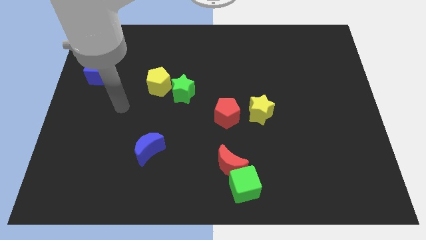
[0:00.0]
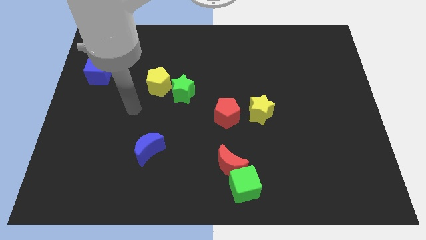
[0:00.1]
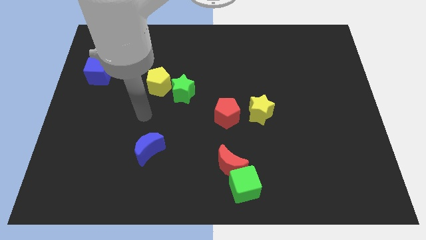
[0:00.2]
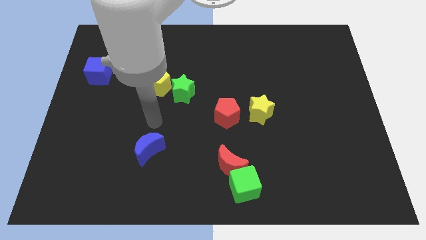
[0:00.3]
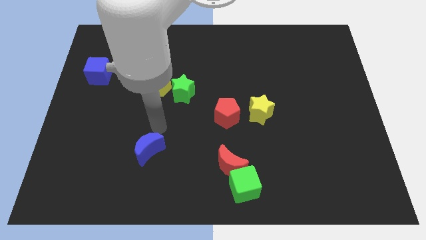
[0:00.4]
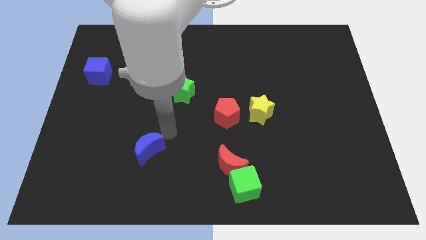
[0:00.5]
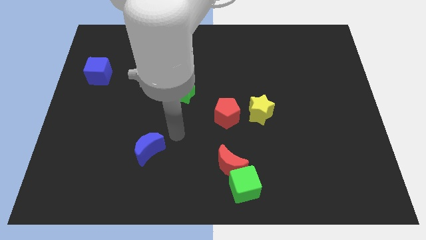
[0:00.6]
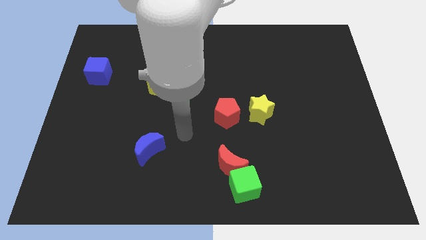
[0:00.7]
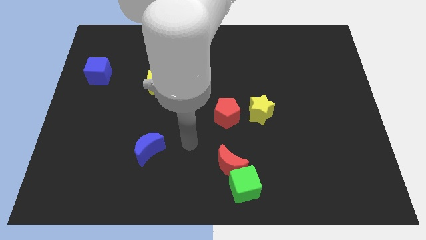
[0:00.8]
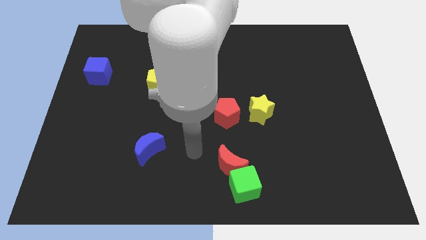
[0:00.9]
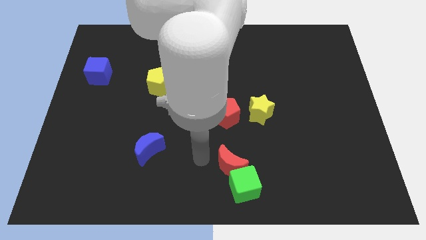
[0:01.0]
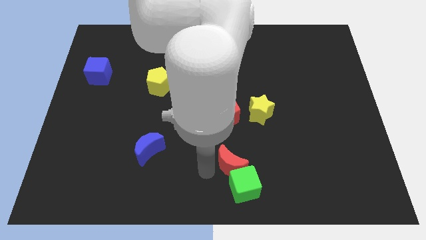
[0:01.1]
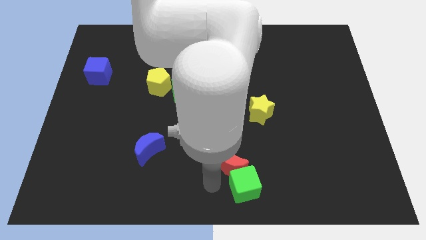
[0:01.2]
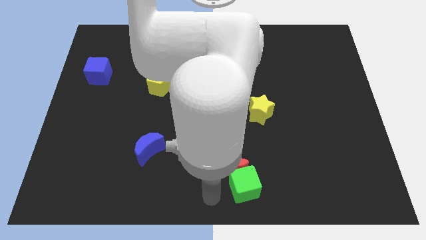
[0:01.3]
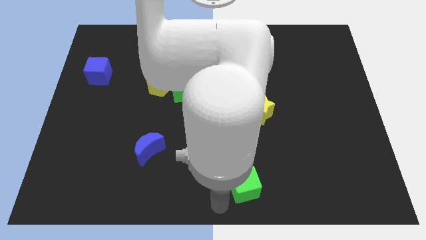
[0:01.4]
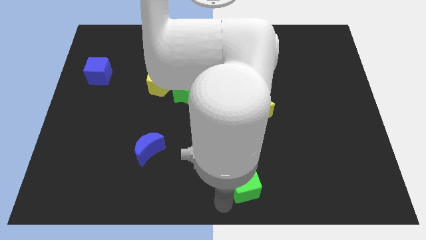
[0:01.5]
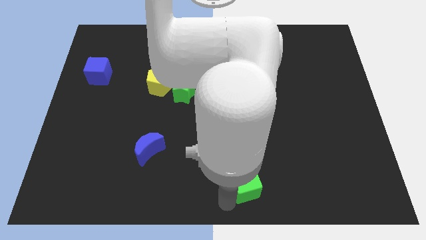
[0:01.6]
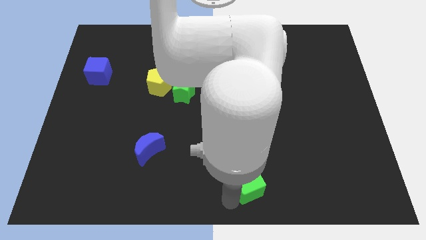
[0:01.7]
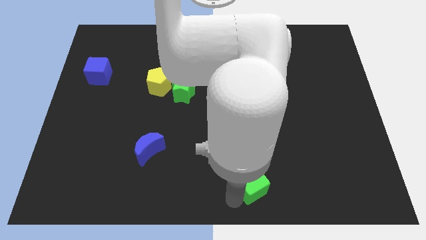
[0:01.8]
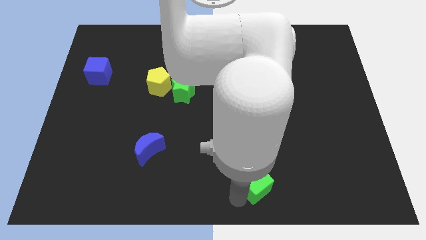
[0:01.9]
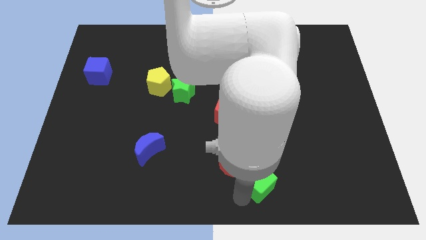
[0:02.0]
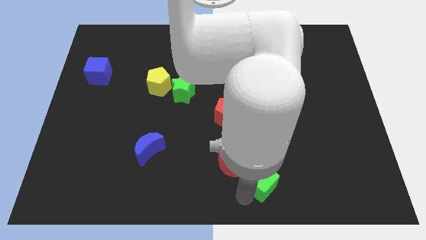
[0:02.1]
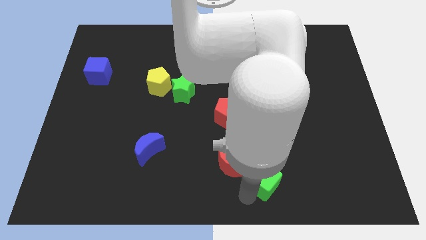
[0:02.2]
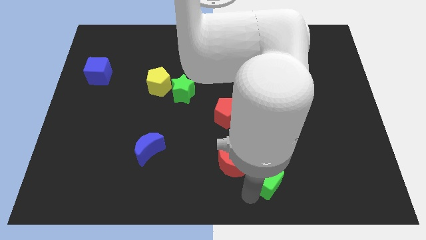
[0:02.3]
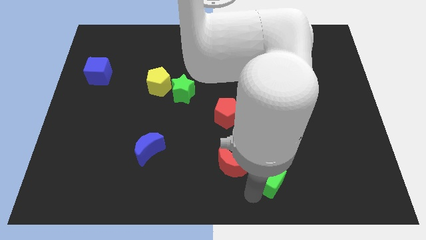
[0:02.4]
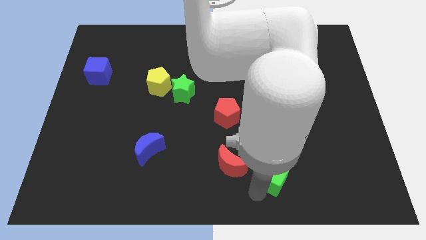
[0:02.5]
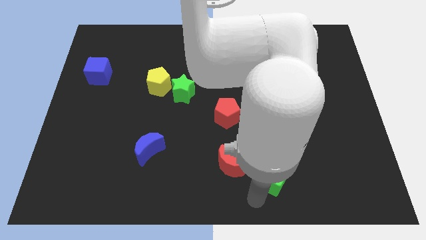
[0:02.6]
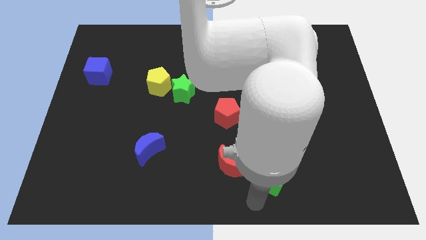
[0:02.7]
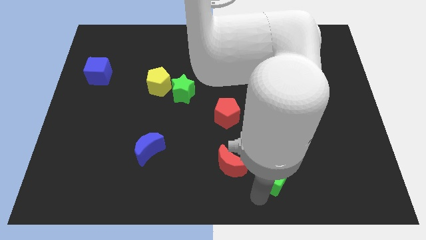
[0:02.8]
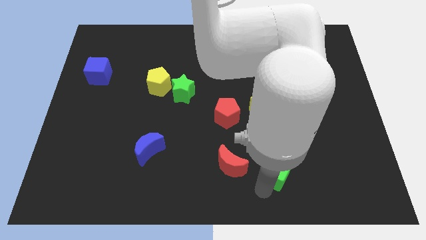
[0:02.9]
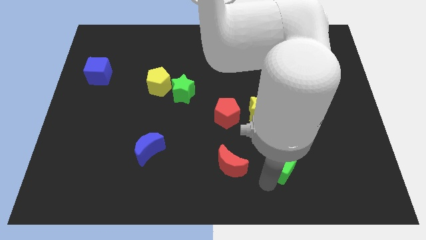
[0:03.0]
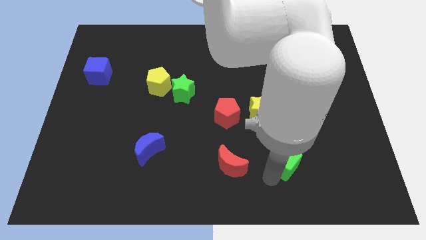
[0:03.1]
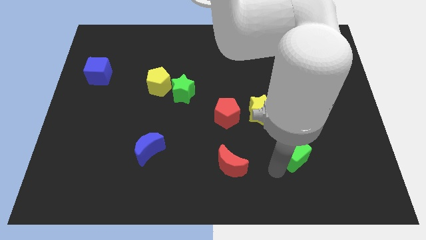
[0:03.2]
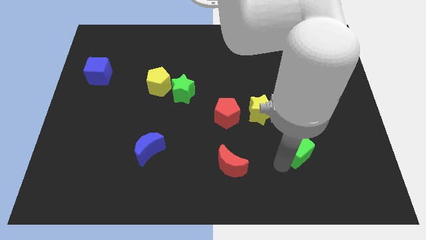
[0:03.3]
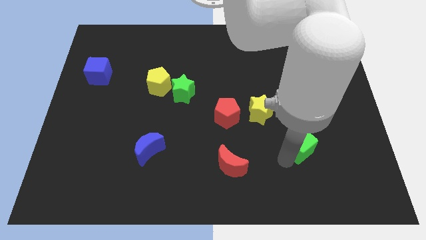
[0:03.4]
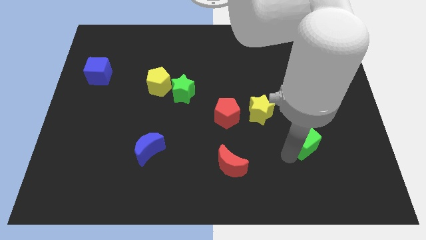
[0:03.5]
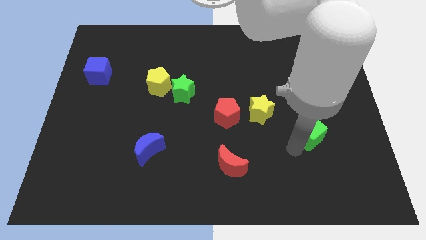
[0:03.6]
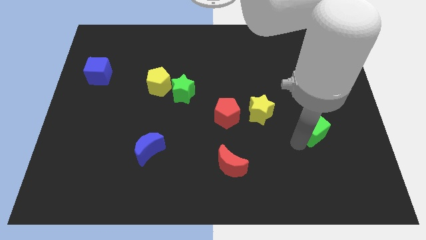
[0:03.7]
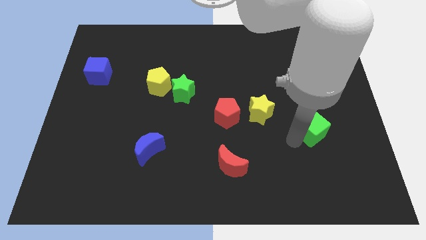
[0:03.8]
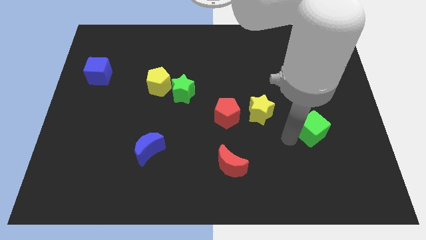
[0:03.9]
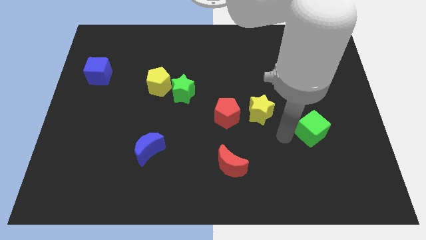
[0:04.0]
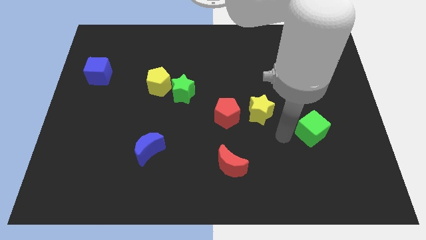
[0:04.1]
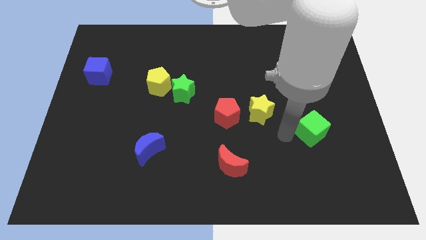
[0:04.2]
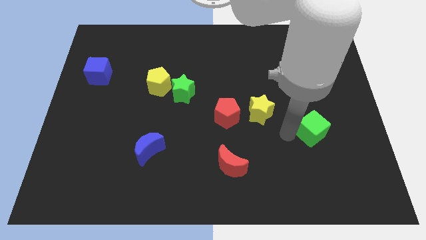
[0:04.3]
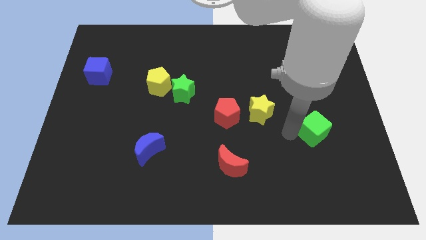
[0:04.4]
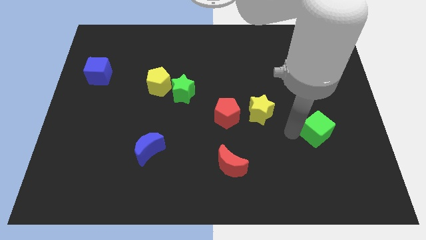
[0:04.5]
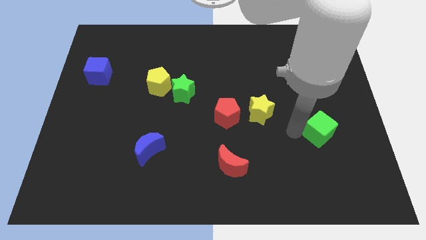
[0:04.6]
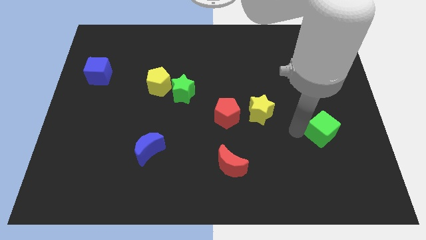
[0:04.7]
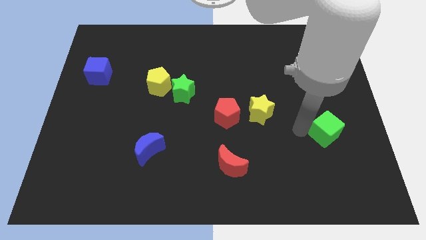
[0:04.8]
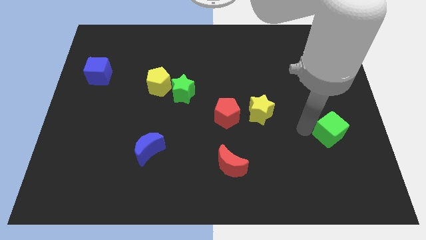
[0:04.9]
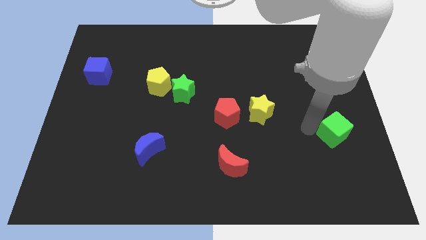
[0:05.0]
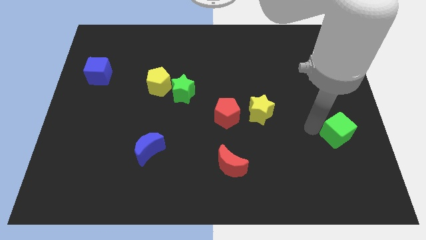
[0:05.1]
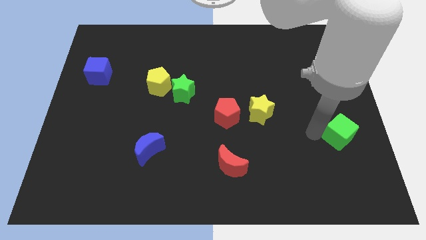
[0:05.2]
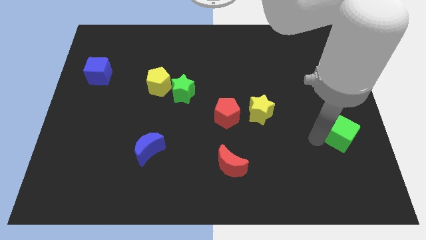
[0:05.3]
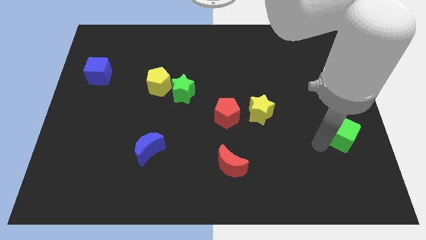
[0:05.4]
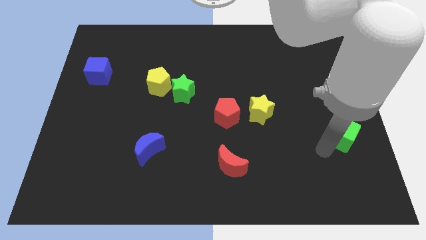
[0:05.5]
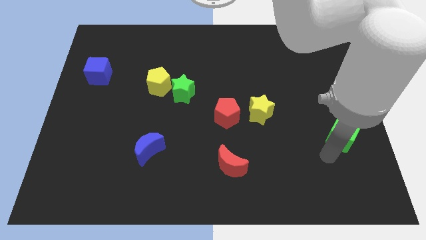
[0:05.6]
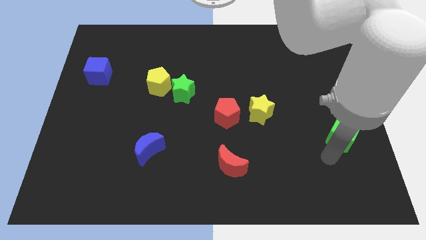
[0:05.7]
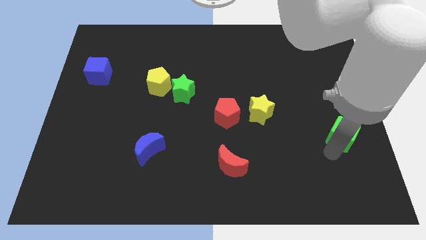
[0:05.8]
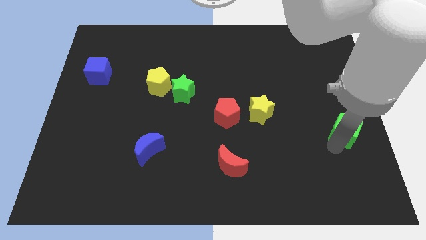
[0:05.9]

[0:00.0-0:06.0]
push the green cube to the right side of the board
